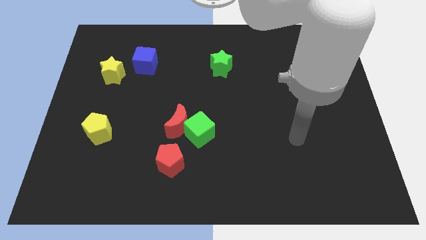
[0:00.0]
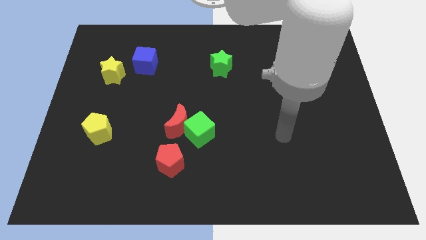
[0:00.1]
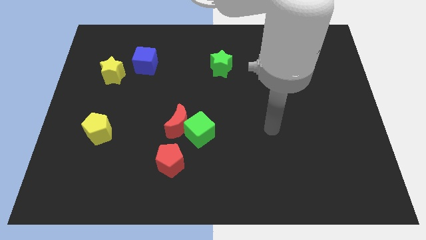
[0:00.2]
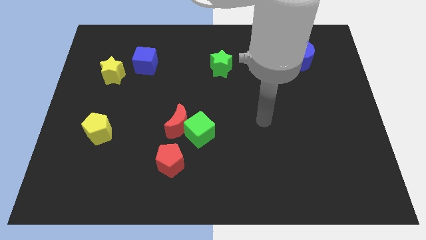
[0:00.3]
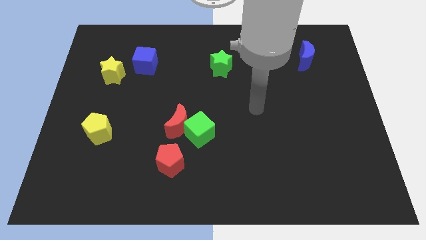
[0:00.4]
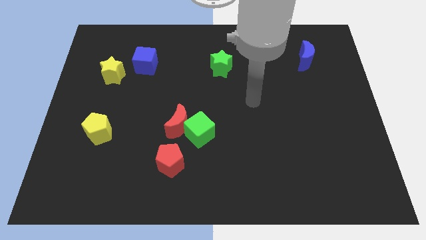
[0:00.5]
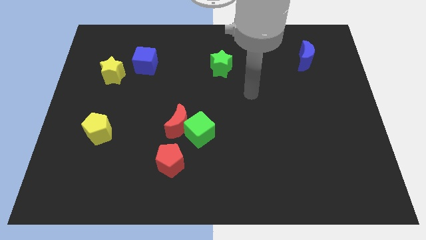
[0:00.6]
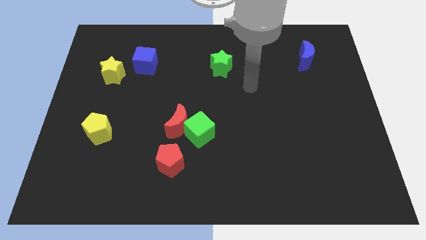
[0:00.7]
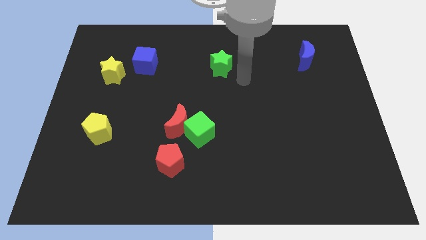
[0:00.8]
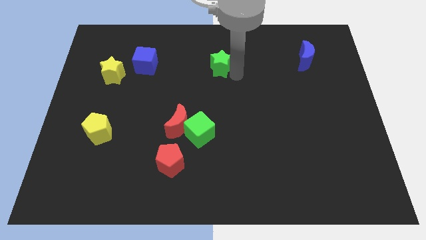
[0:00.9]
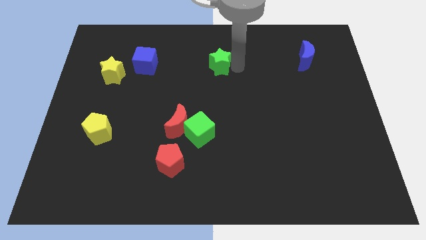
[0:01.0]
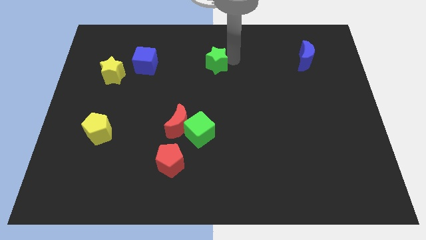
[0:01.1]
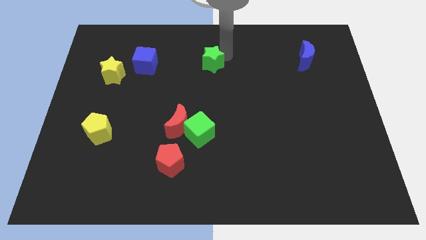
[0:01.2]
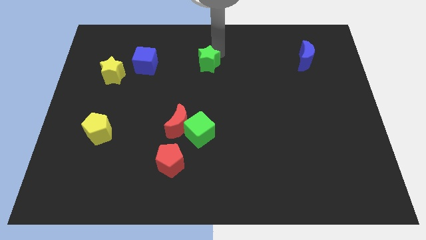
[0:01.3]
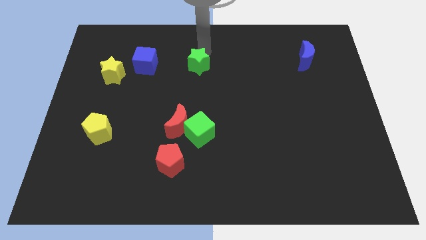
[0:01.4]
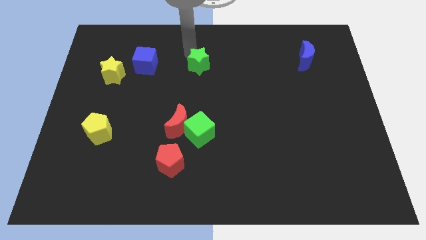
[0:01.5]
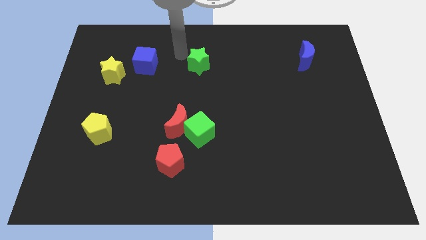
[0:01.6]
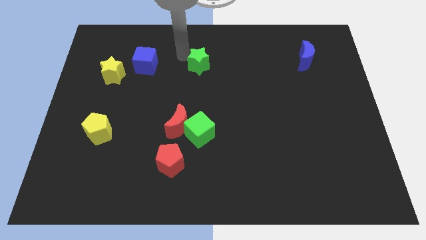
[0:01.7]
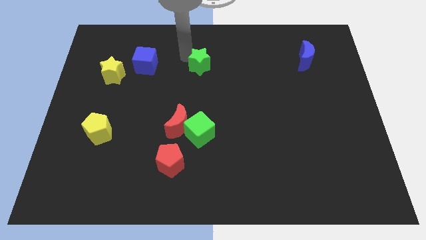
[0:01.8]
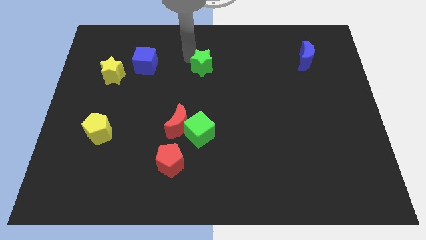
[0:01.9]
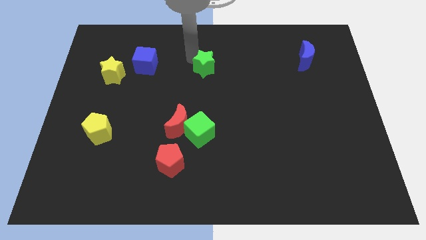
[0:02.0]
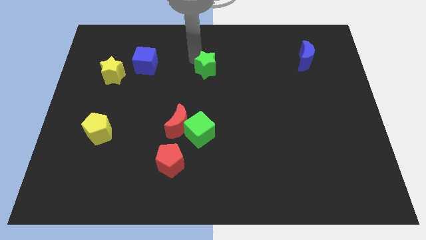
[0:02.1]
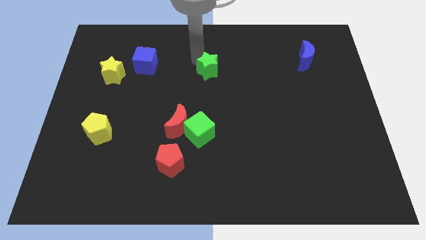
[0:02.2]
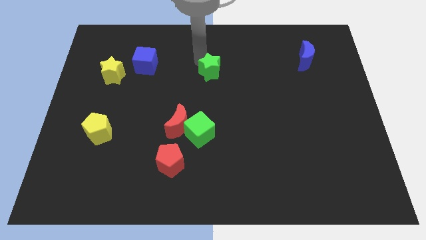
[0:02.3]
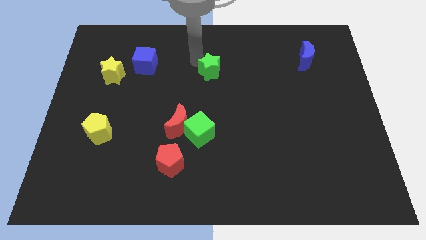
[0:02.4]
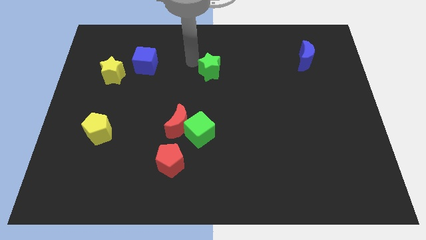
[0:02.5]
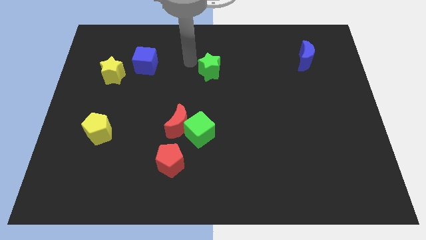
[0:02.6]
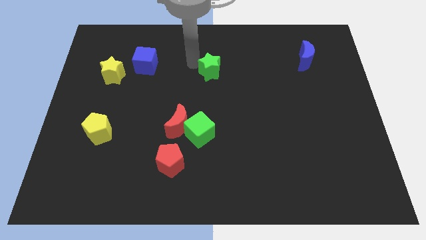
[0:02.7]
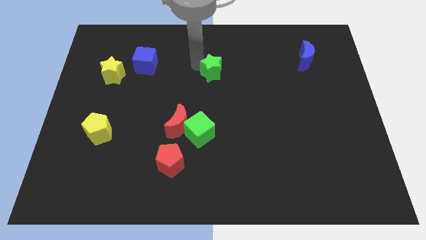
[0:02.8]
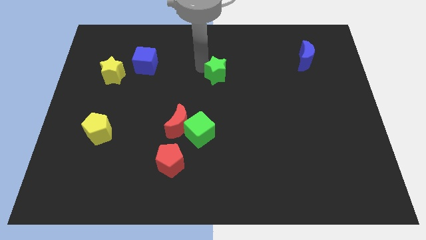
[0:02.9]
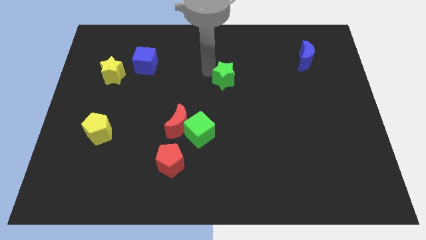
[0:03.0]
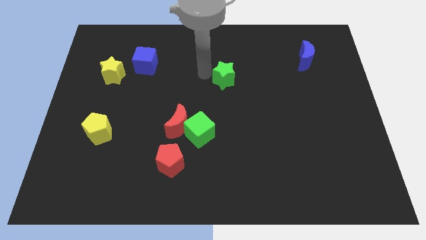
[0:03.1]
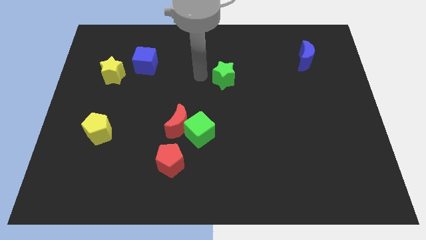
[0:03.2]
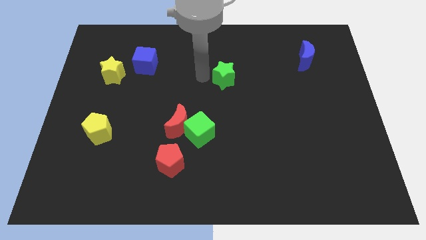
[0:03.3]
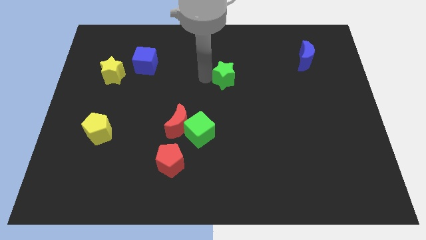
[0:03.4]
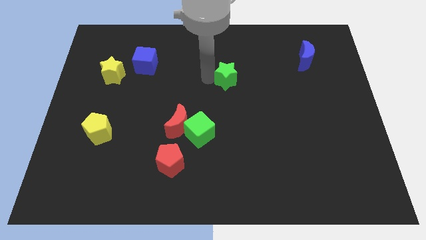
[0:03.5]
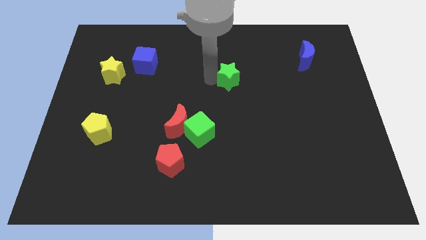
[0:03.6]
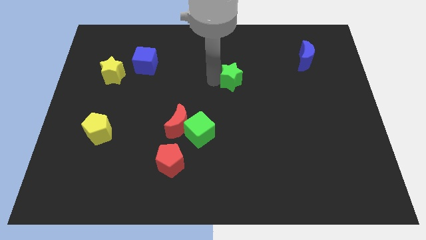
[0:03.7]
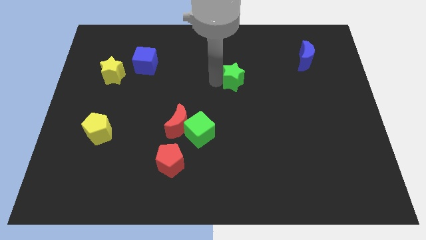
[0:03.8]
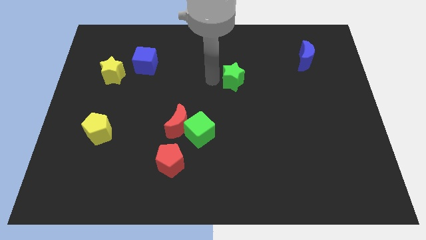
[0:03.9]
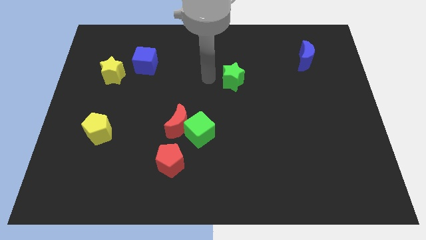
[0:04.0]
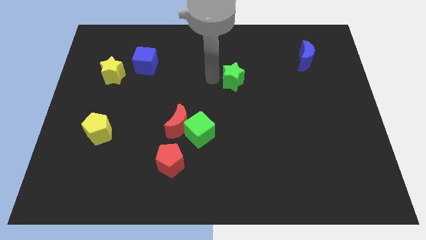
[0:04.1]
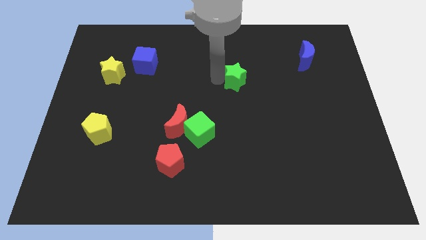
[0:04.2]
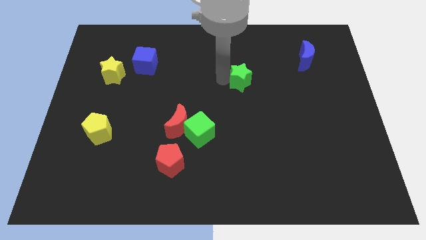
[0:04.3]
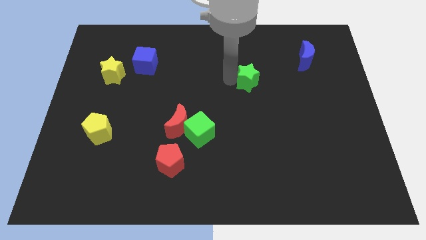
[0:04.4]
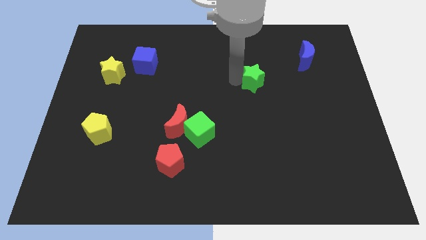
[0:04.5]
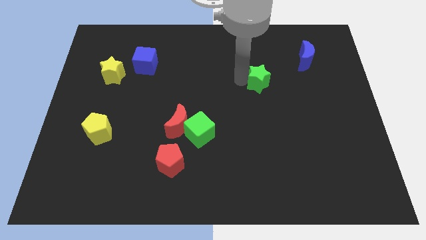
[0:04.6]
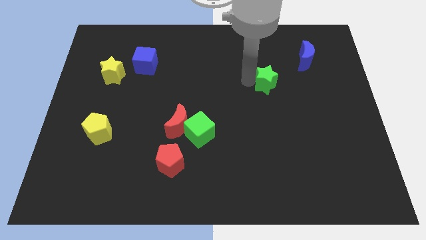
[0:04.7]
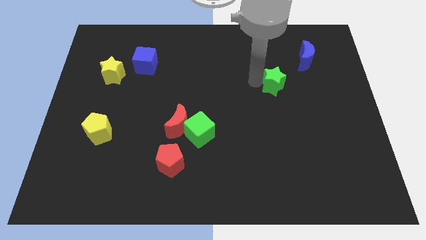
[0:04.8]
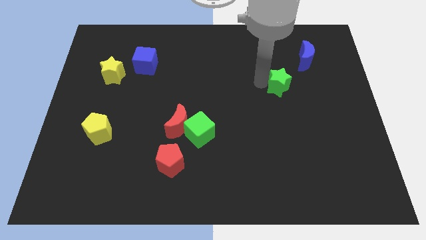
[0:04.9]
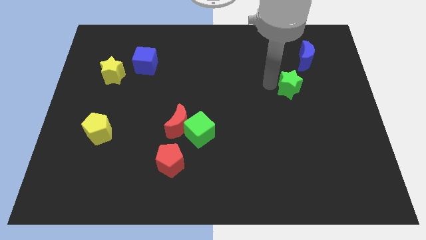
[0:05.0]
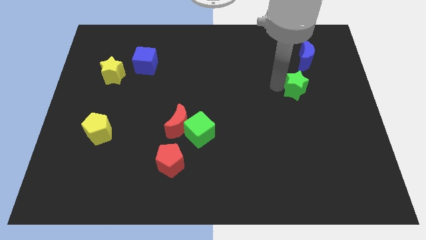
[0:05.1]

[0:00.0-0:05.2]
slide the green star to the bottom side of the blue moon

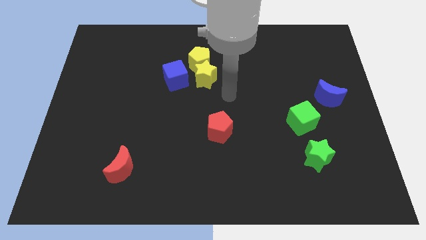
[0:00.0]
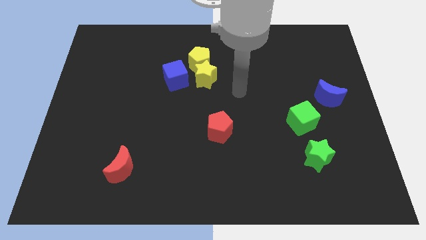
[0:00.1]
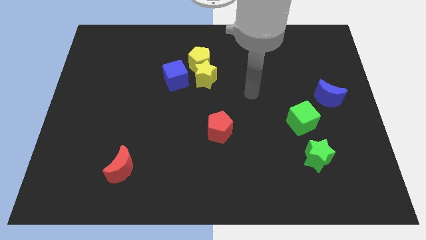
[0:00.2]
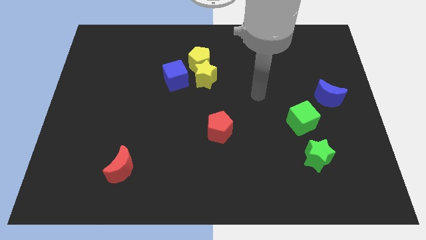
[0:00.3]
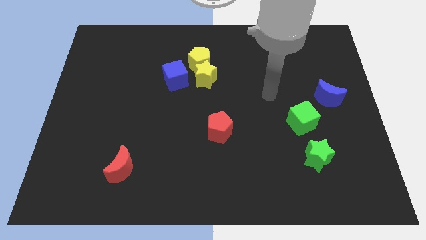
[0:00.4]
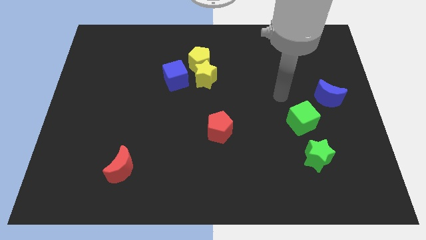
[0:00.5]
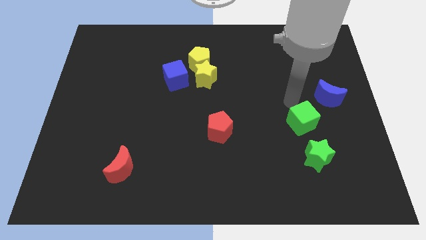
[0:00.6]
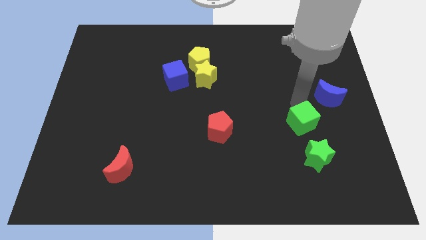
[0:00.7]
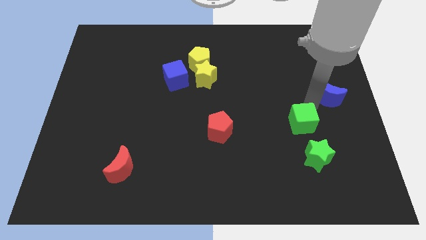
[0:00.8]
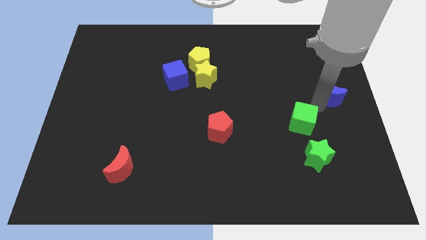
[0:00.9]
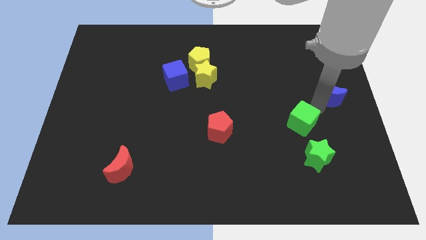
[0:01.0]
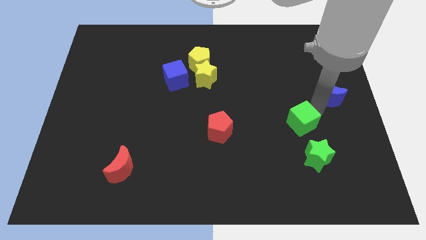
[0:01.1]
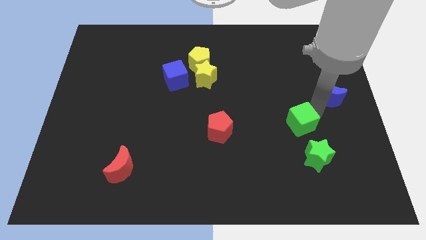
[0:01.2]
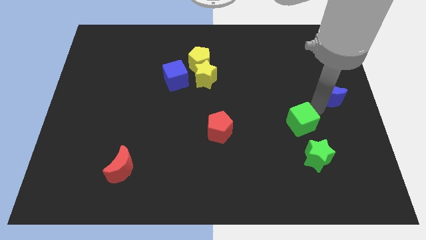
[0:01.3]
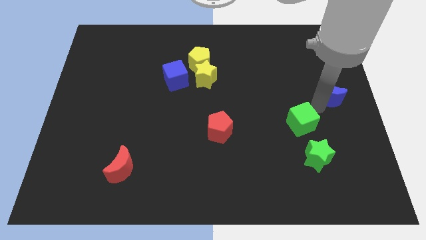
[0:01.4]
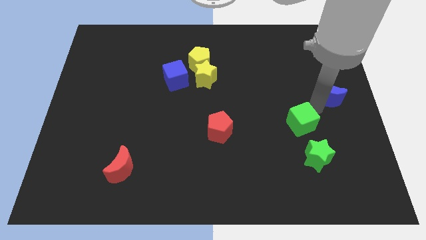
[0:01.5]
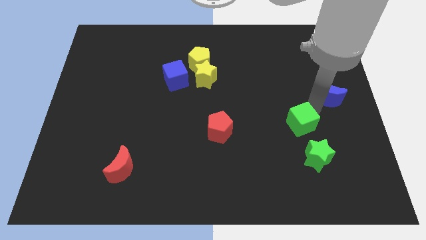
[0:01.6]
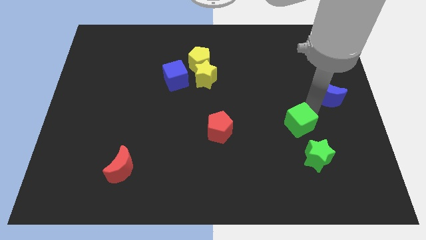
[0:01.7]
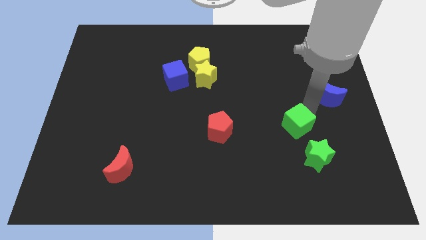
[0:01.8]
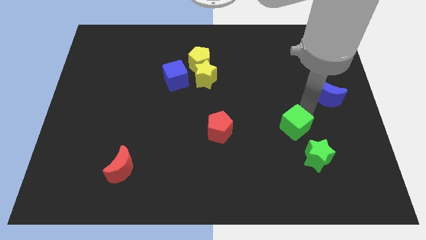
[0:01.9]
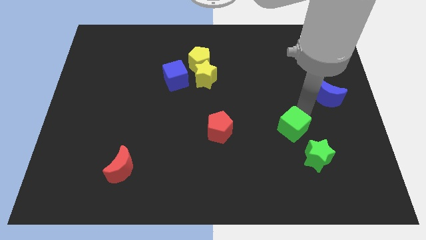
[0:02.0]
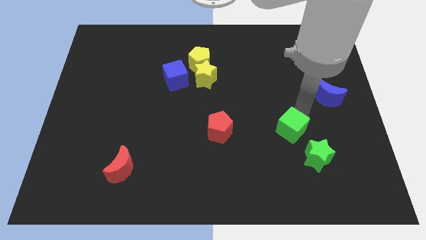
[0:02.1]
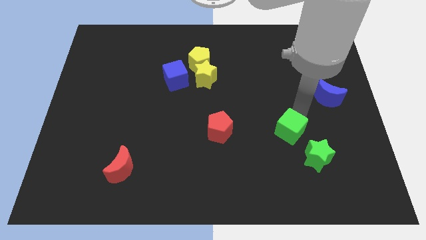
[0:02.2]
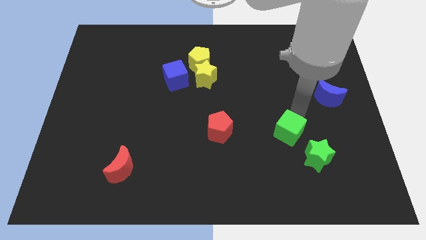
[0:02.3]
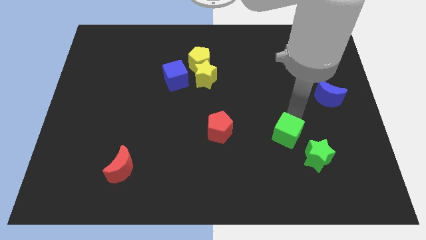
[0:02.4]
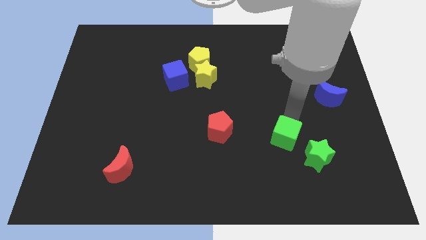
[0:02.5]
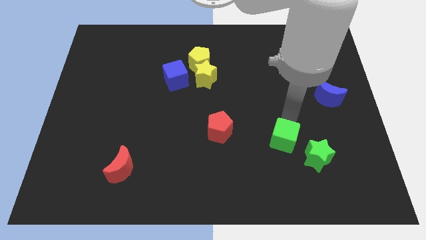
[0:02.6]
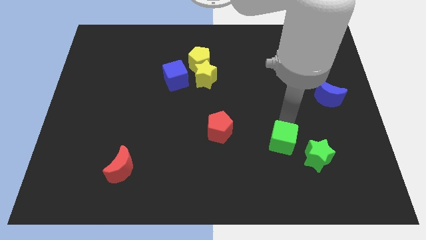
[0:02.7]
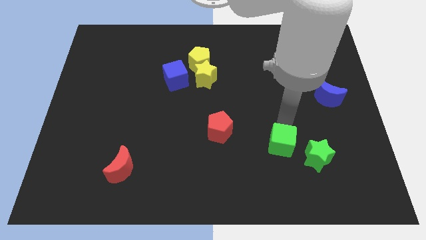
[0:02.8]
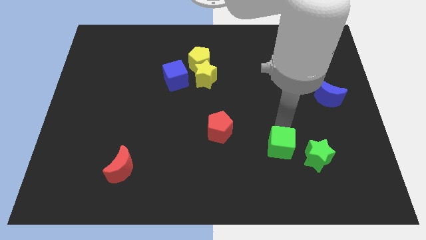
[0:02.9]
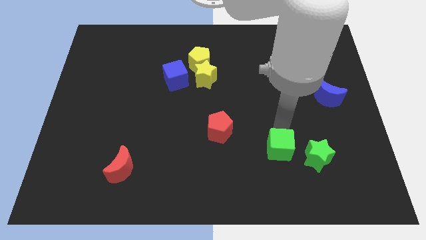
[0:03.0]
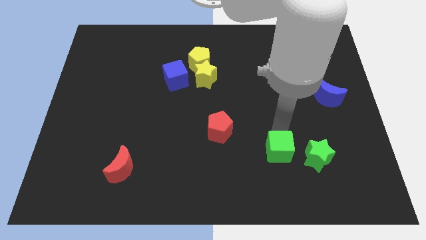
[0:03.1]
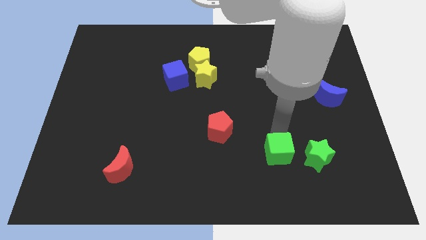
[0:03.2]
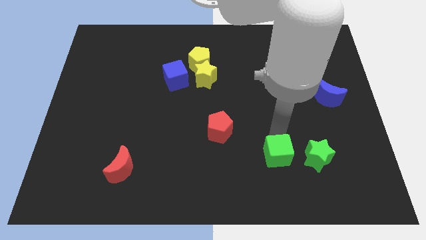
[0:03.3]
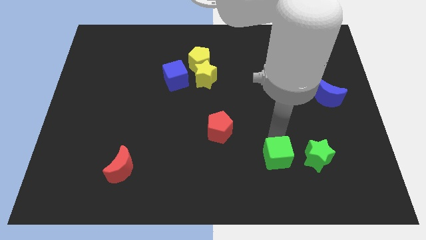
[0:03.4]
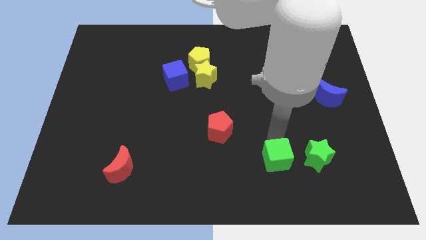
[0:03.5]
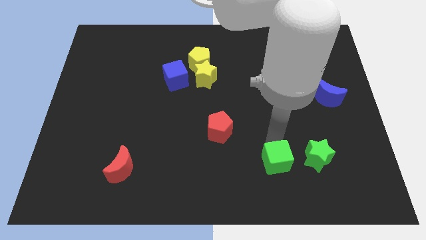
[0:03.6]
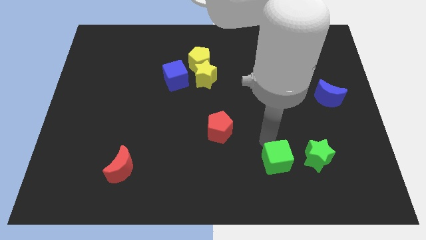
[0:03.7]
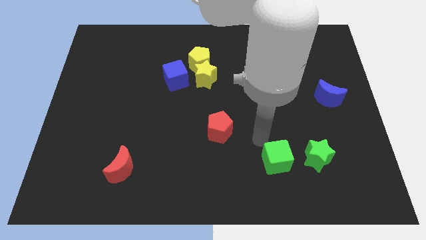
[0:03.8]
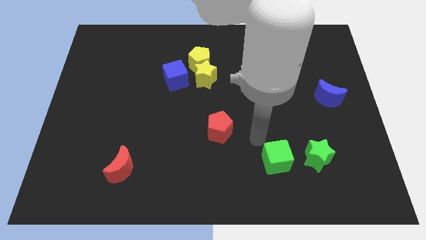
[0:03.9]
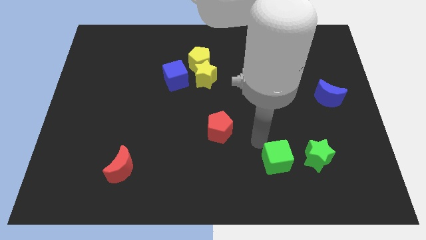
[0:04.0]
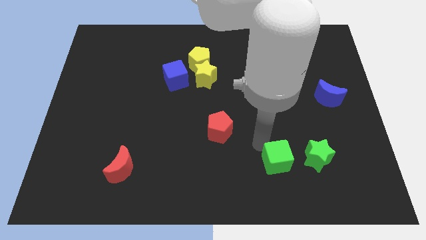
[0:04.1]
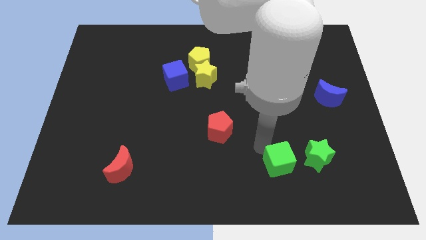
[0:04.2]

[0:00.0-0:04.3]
slide the green cube to the bottom left side of the green star
